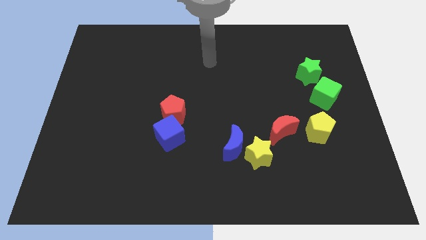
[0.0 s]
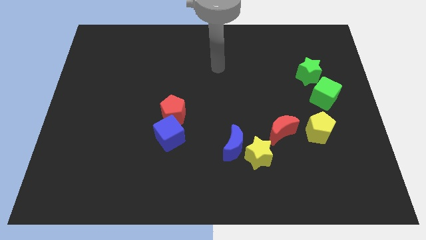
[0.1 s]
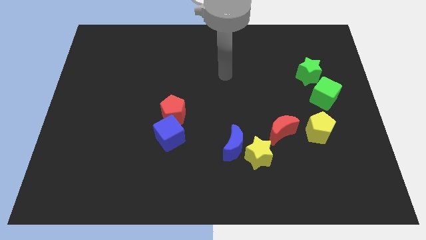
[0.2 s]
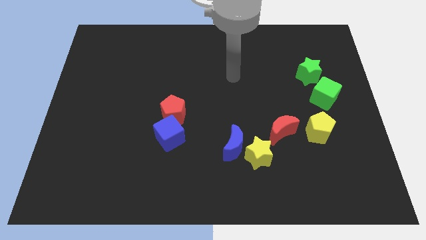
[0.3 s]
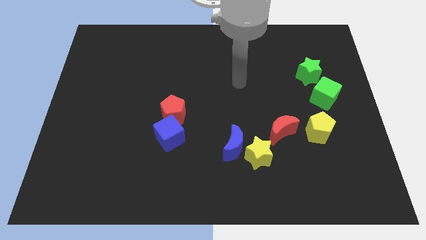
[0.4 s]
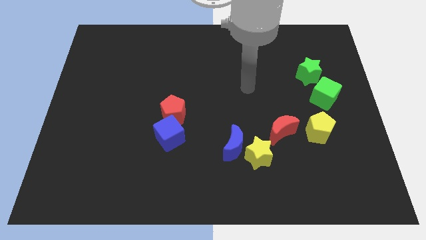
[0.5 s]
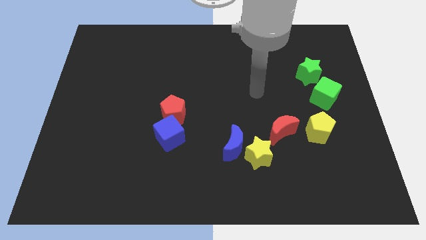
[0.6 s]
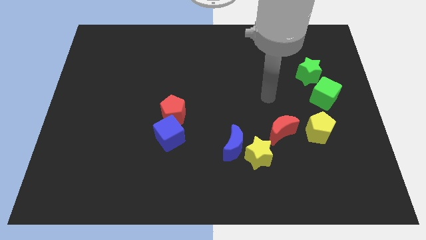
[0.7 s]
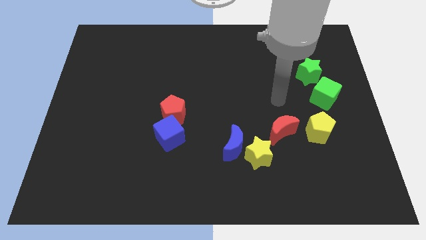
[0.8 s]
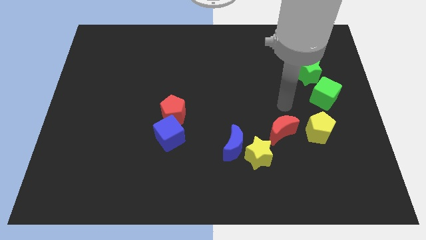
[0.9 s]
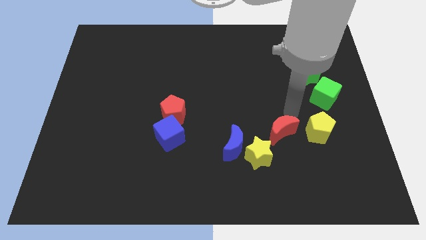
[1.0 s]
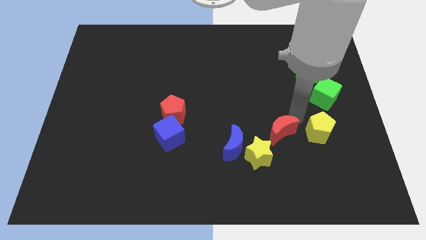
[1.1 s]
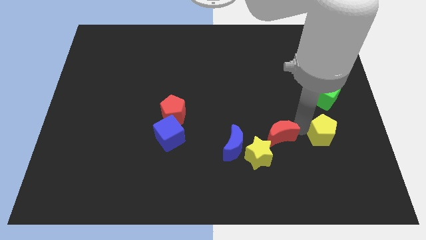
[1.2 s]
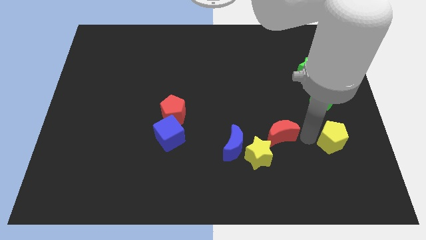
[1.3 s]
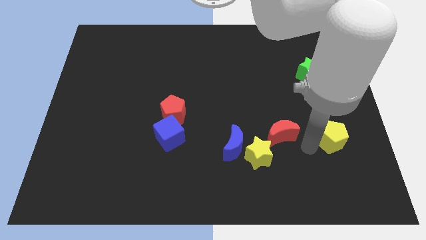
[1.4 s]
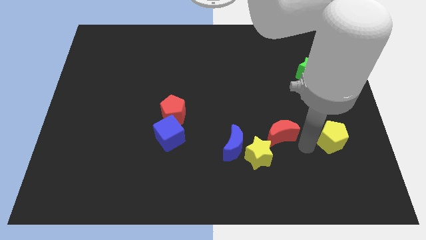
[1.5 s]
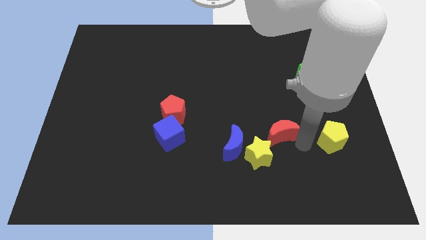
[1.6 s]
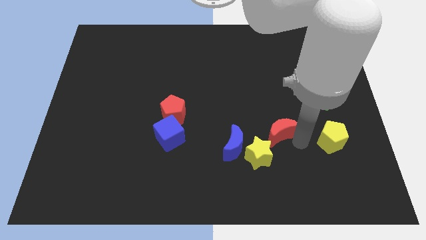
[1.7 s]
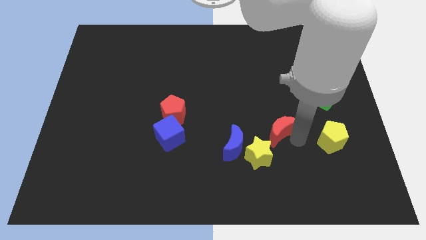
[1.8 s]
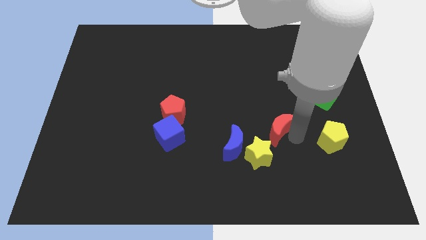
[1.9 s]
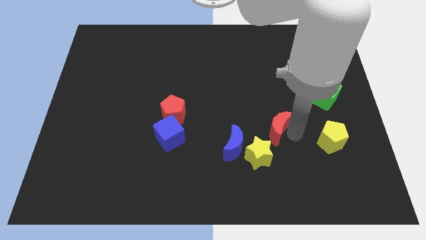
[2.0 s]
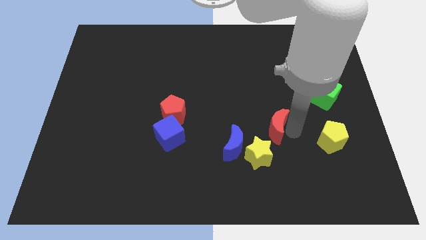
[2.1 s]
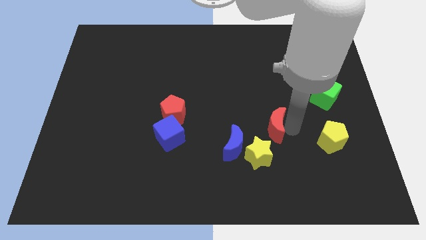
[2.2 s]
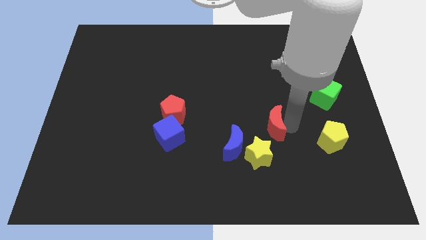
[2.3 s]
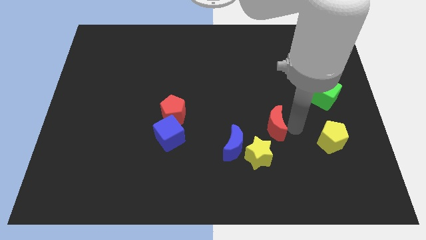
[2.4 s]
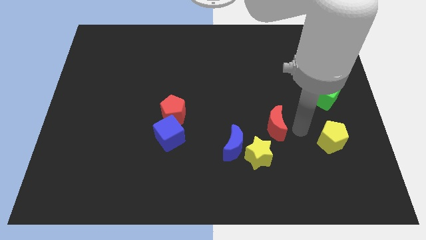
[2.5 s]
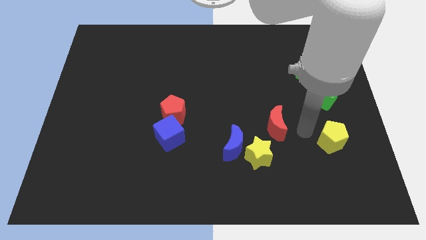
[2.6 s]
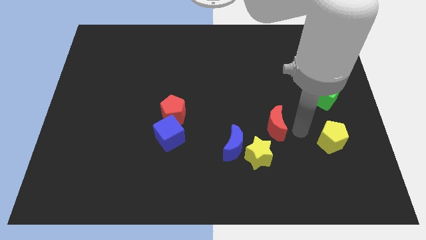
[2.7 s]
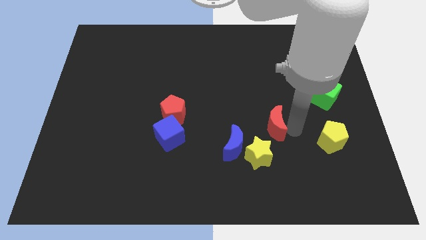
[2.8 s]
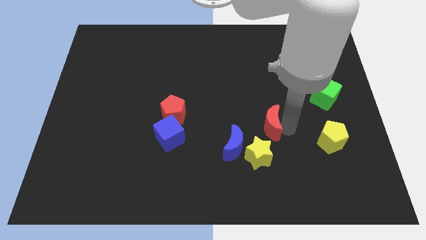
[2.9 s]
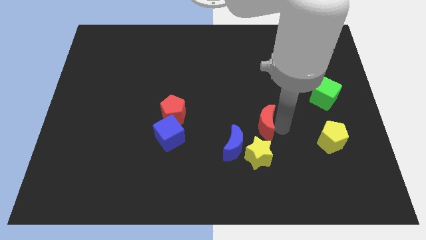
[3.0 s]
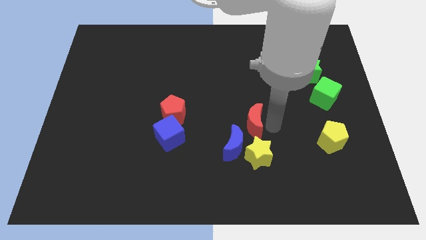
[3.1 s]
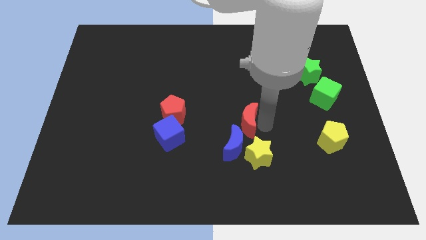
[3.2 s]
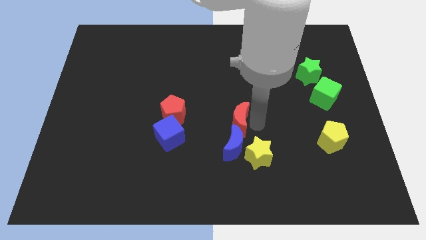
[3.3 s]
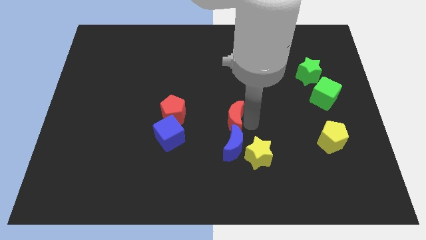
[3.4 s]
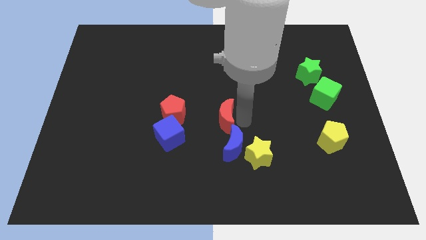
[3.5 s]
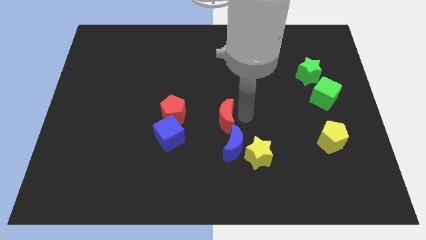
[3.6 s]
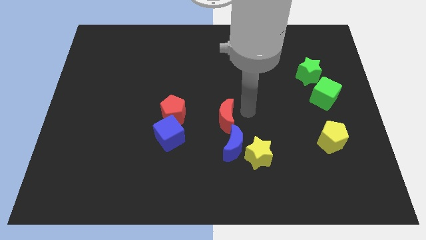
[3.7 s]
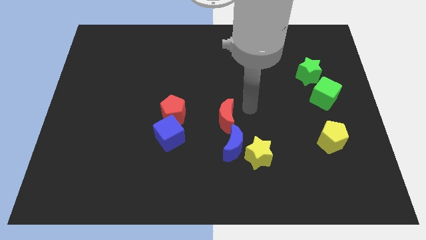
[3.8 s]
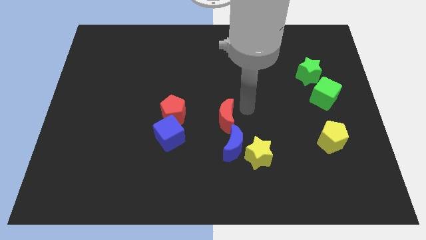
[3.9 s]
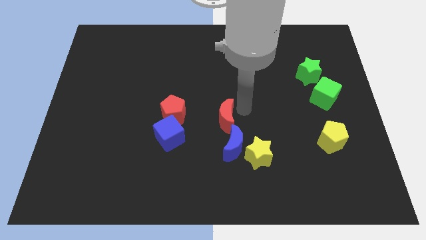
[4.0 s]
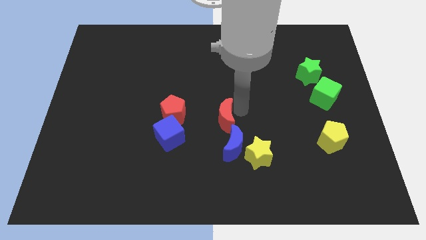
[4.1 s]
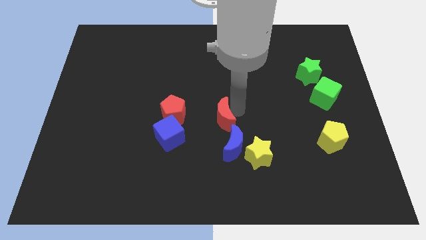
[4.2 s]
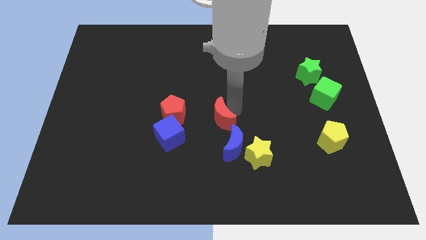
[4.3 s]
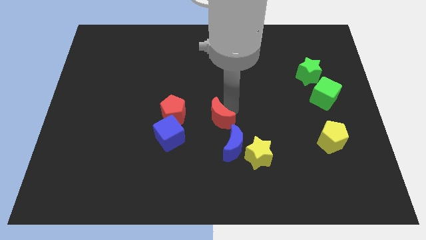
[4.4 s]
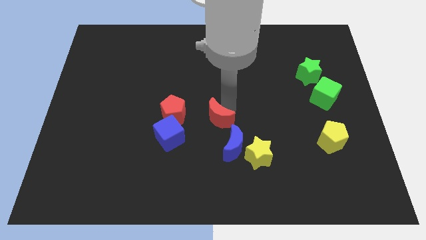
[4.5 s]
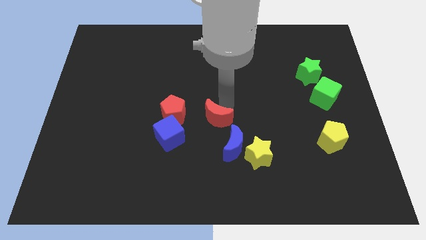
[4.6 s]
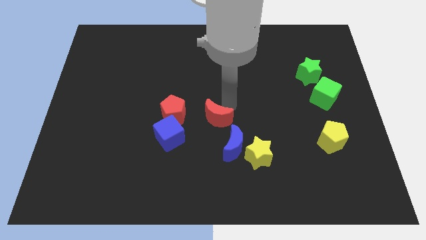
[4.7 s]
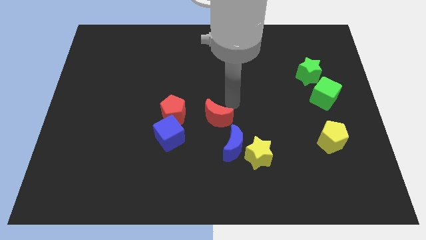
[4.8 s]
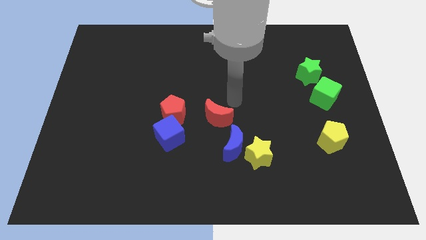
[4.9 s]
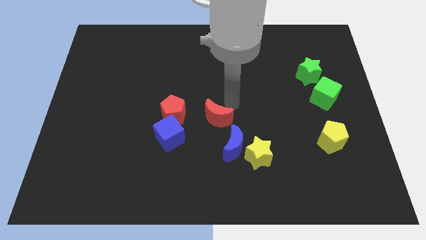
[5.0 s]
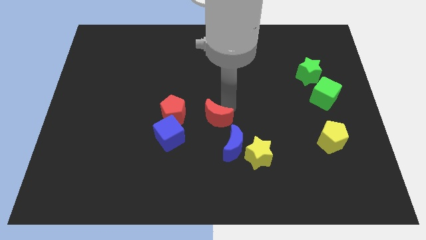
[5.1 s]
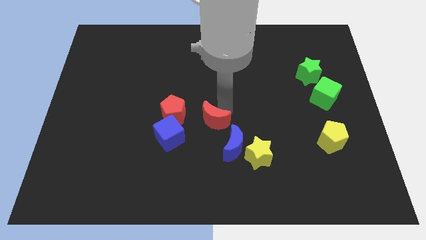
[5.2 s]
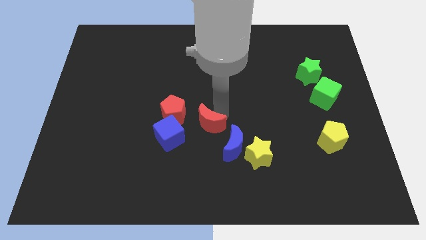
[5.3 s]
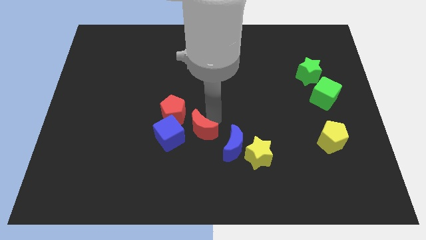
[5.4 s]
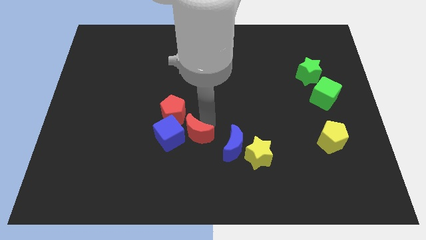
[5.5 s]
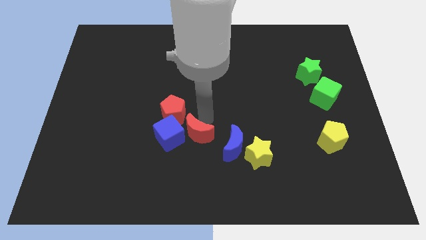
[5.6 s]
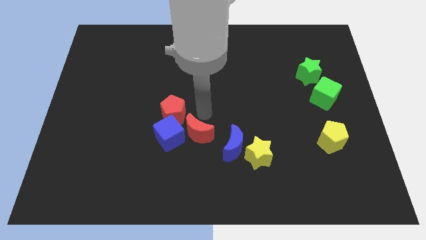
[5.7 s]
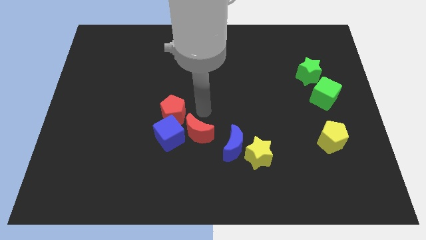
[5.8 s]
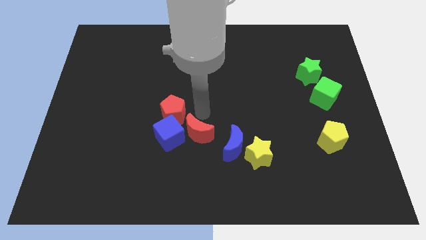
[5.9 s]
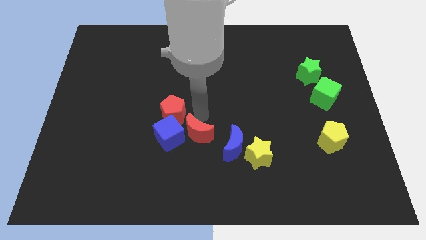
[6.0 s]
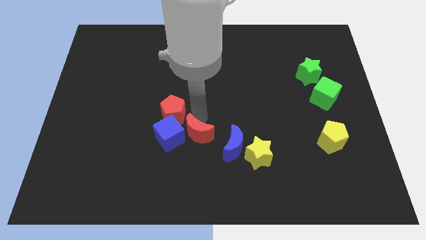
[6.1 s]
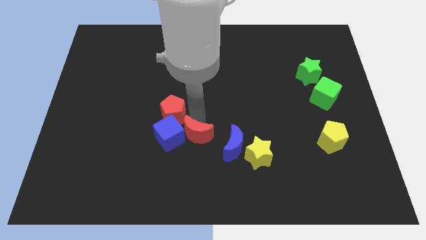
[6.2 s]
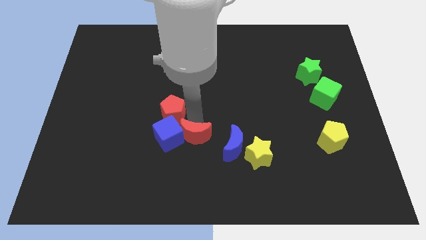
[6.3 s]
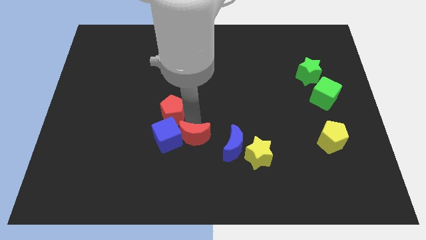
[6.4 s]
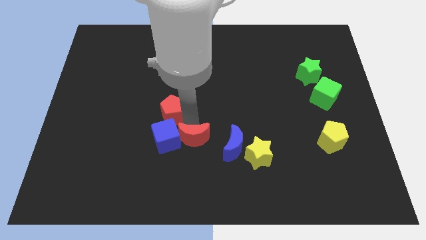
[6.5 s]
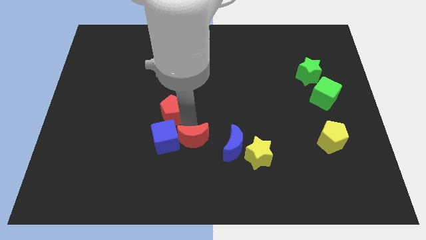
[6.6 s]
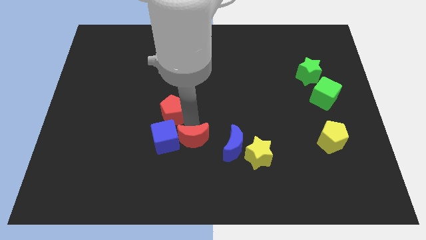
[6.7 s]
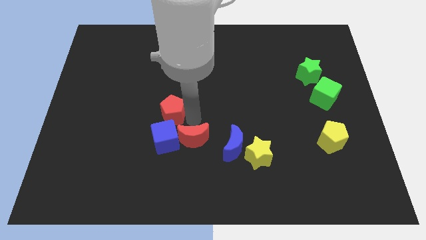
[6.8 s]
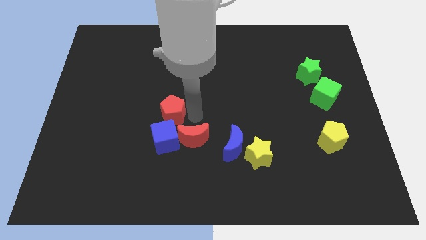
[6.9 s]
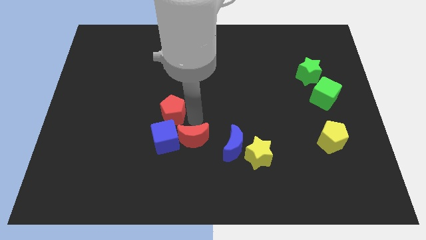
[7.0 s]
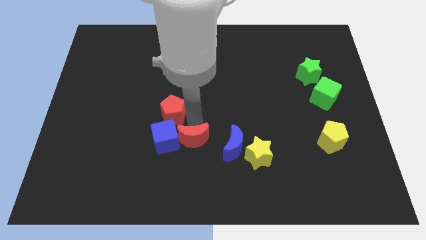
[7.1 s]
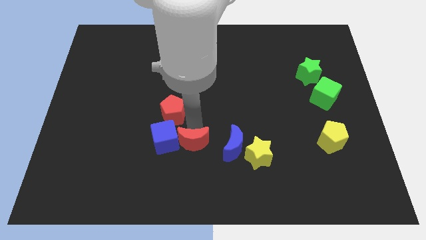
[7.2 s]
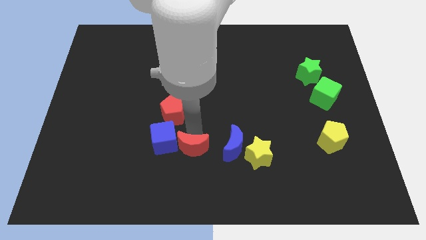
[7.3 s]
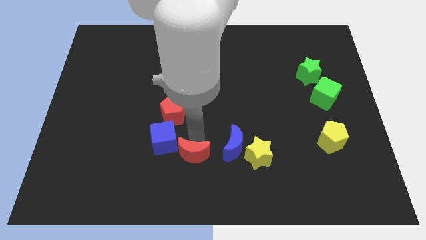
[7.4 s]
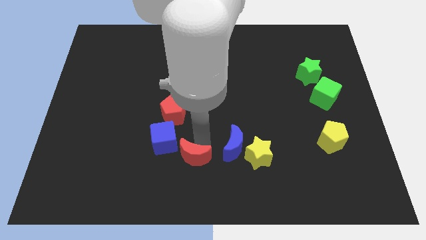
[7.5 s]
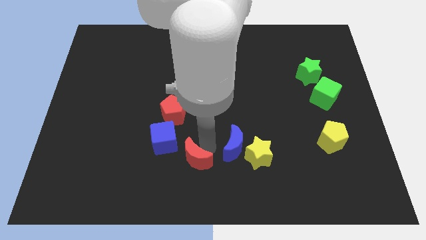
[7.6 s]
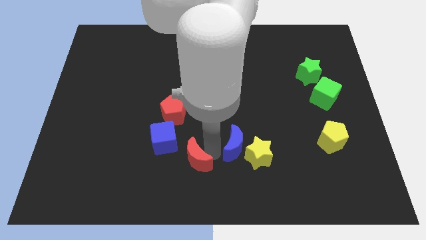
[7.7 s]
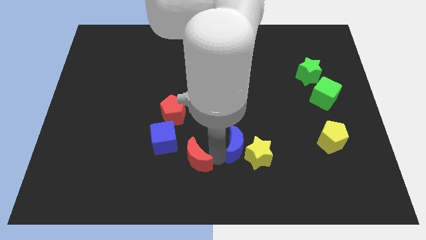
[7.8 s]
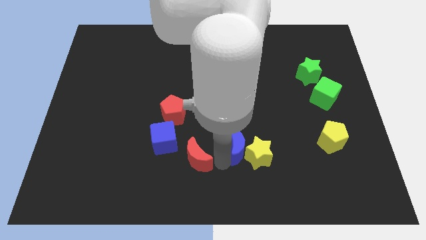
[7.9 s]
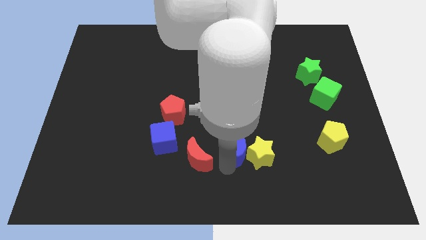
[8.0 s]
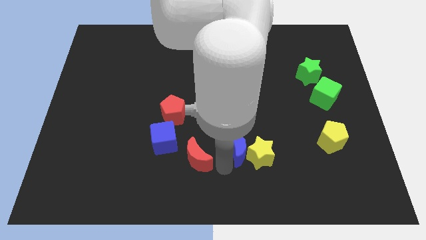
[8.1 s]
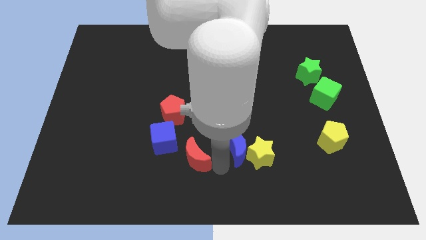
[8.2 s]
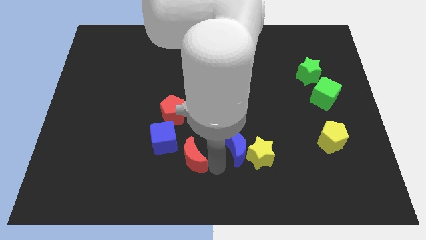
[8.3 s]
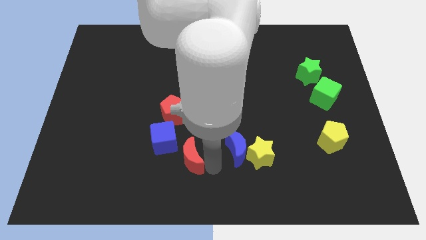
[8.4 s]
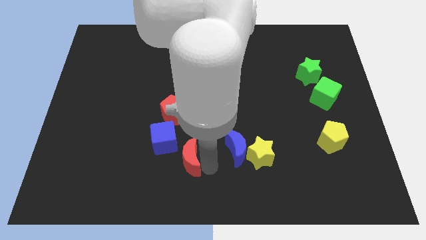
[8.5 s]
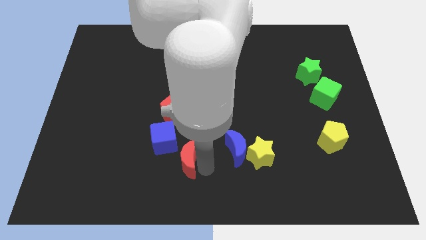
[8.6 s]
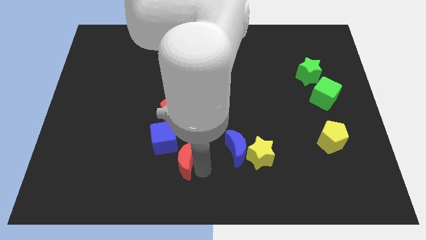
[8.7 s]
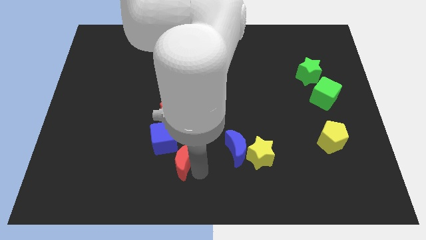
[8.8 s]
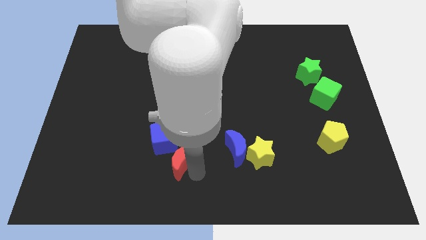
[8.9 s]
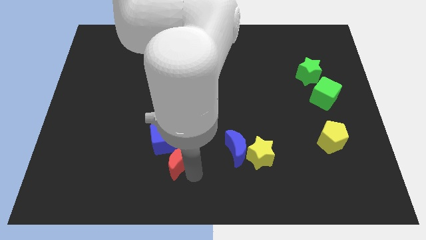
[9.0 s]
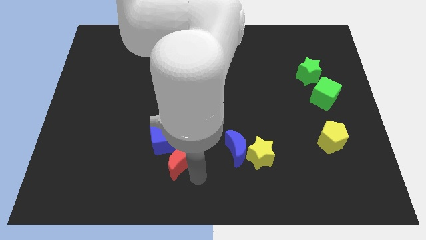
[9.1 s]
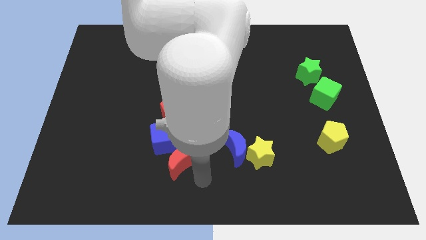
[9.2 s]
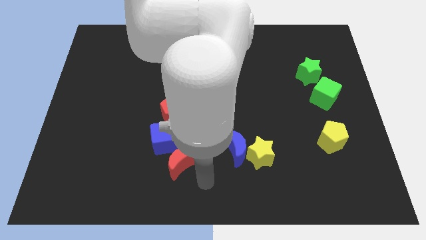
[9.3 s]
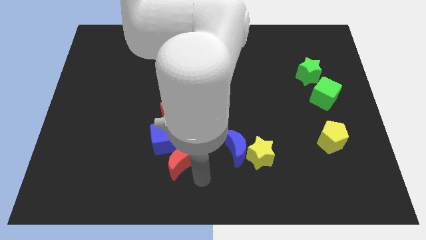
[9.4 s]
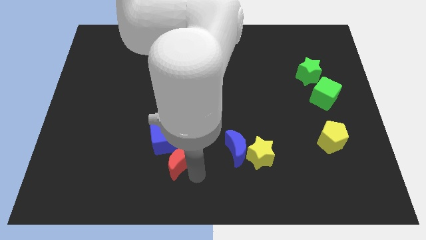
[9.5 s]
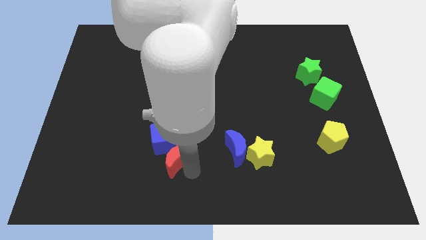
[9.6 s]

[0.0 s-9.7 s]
push the red moon left
